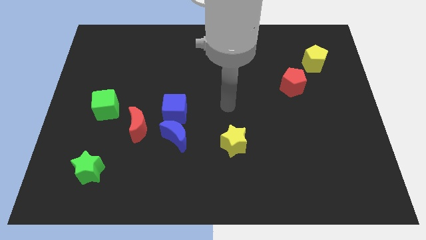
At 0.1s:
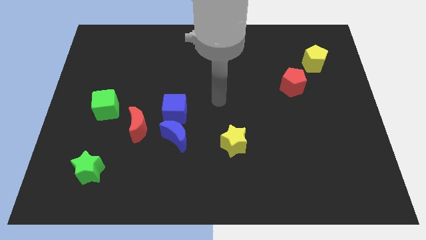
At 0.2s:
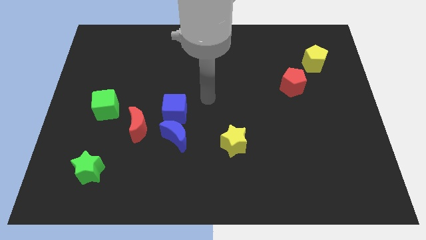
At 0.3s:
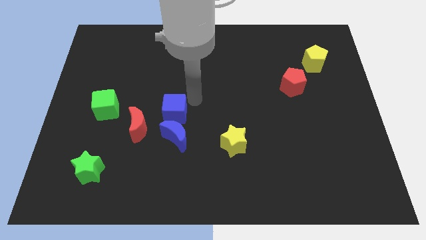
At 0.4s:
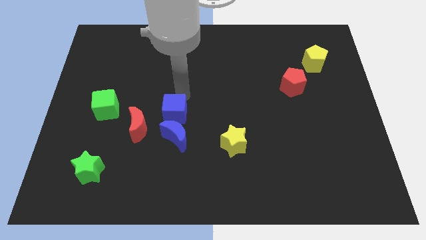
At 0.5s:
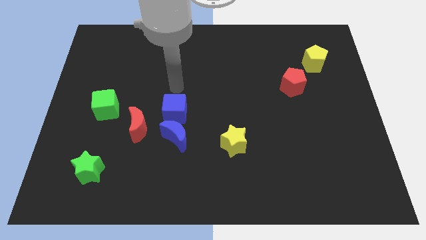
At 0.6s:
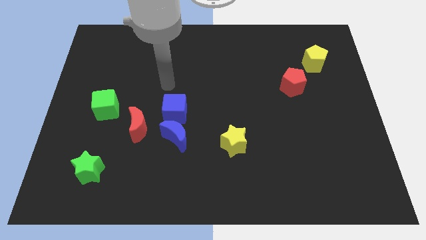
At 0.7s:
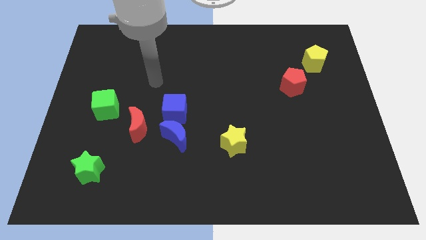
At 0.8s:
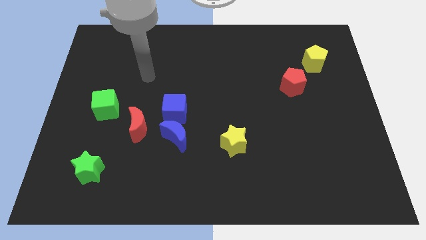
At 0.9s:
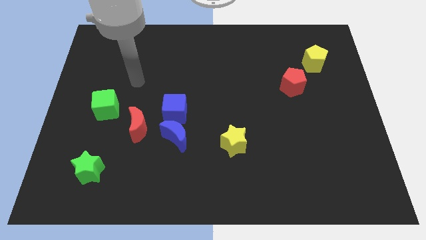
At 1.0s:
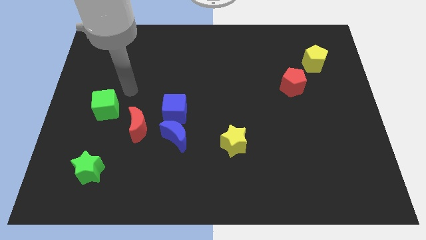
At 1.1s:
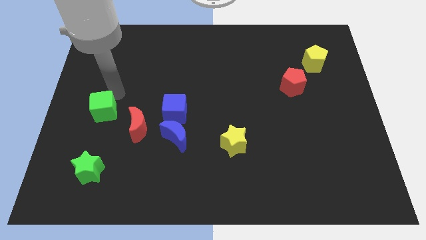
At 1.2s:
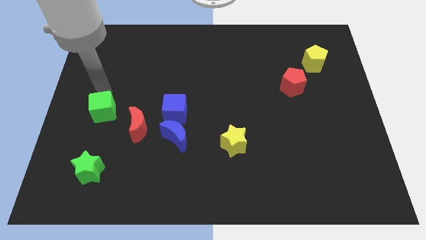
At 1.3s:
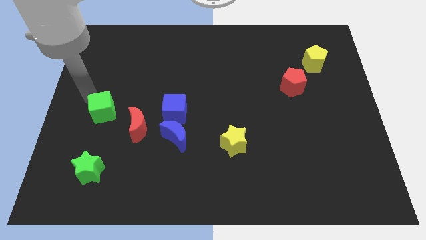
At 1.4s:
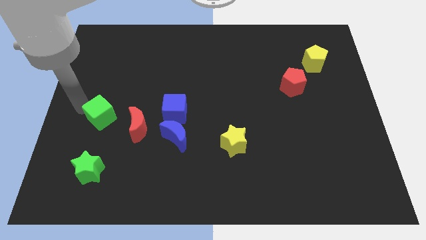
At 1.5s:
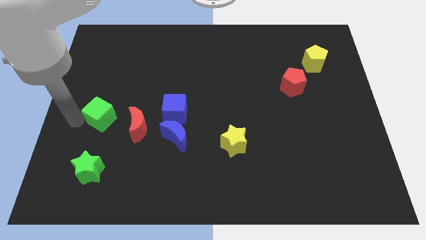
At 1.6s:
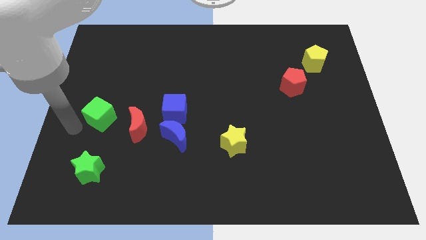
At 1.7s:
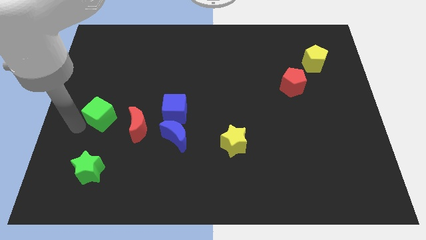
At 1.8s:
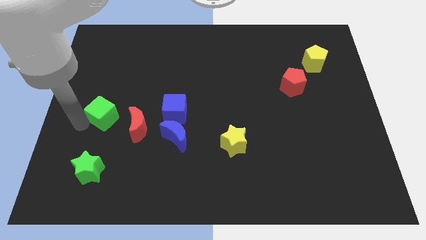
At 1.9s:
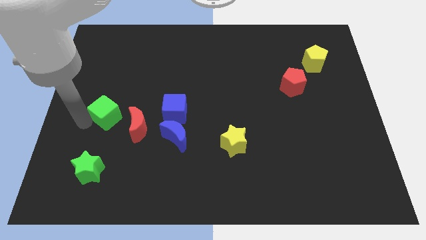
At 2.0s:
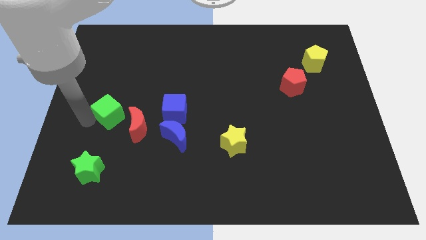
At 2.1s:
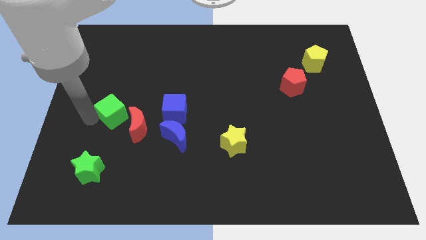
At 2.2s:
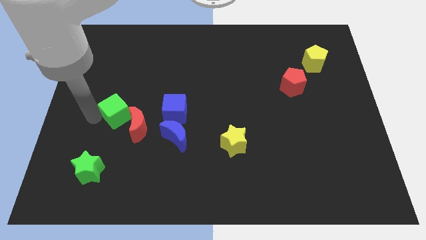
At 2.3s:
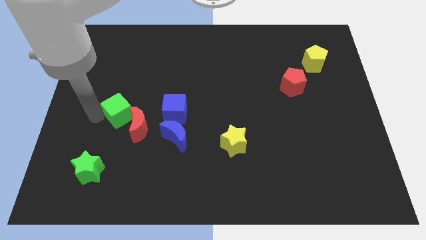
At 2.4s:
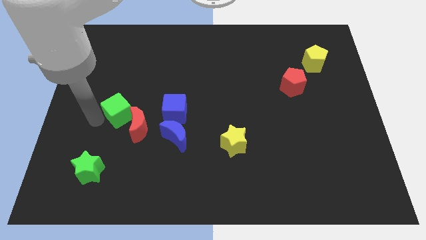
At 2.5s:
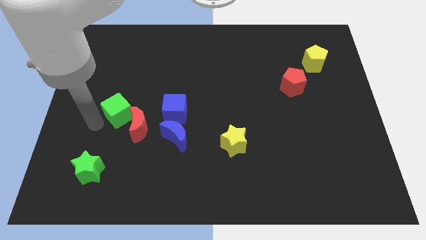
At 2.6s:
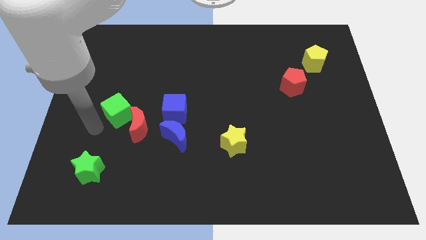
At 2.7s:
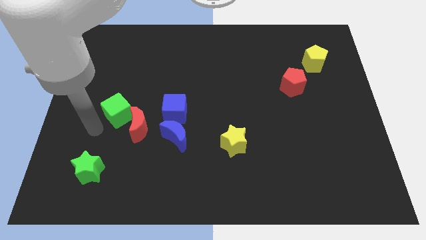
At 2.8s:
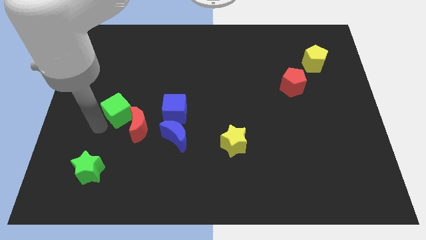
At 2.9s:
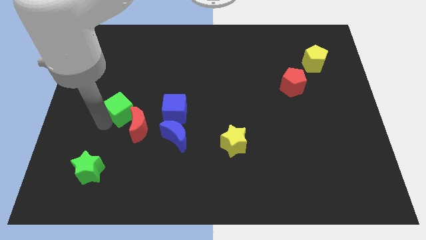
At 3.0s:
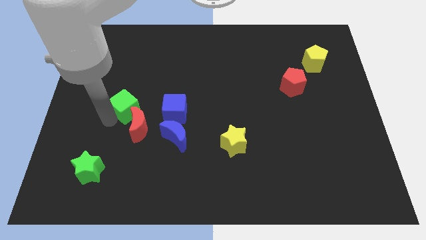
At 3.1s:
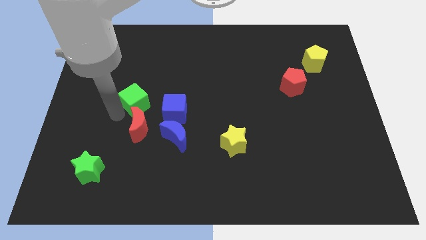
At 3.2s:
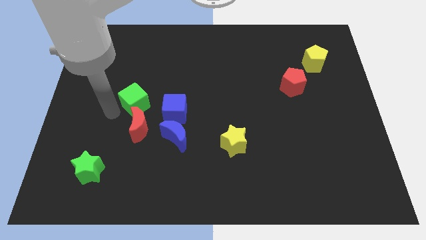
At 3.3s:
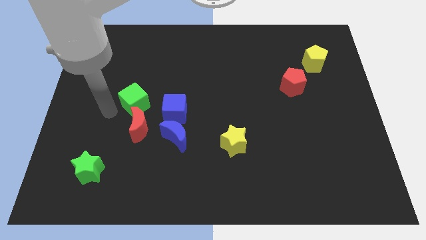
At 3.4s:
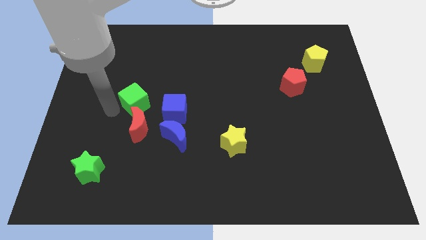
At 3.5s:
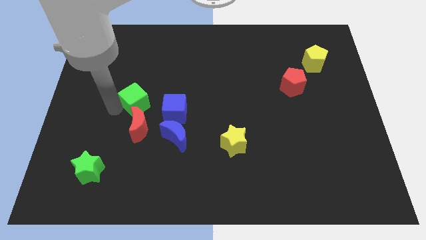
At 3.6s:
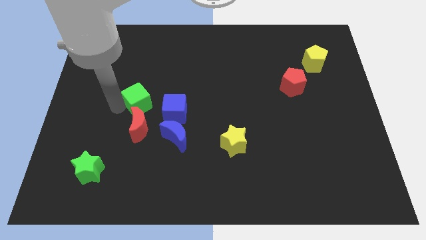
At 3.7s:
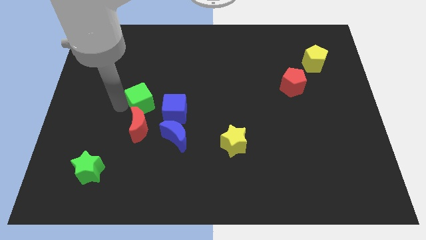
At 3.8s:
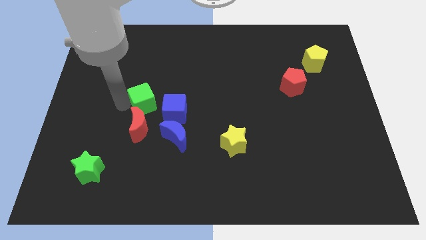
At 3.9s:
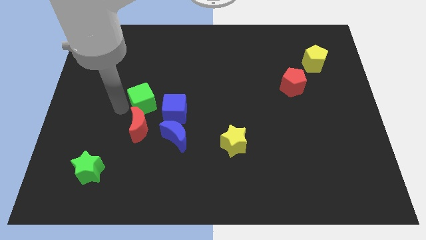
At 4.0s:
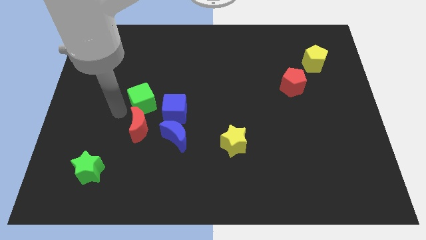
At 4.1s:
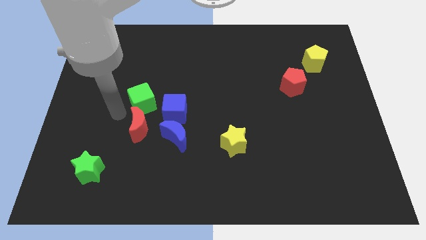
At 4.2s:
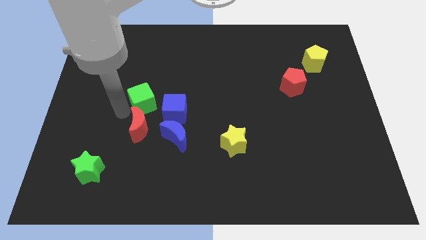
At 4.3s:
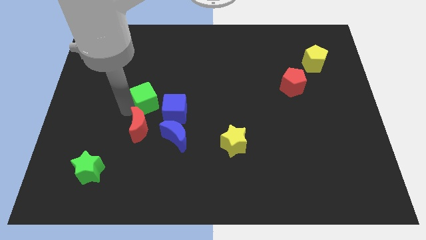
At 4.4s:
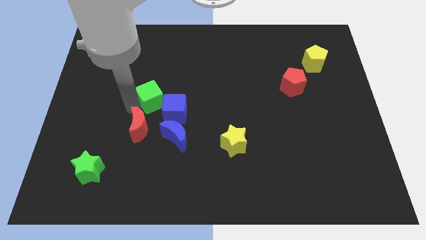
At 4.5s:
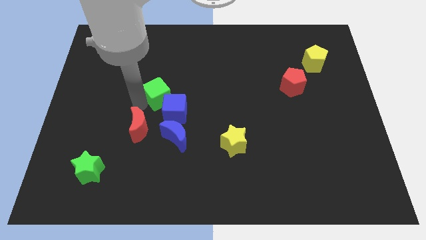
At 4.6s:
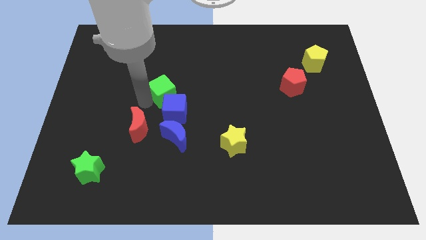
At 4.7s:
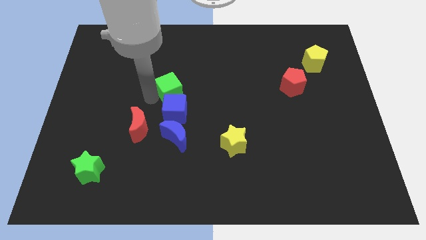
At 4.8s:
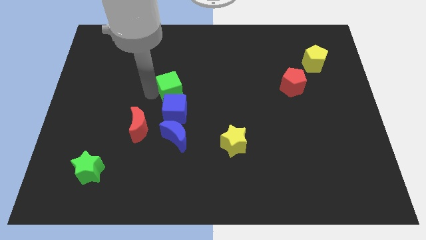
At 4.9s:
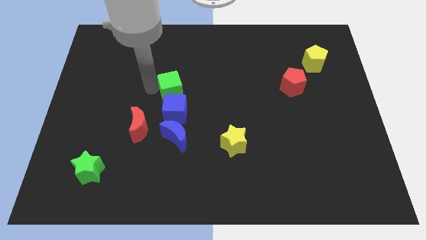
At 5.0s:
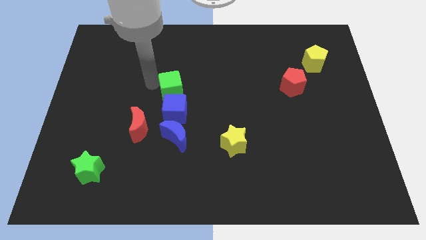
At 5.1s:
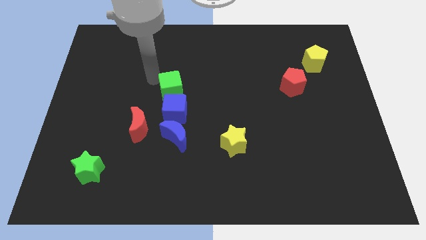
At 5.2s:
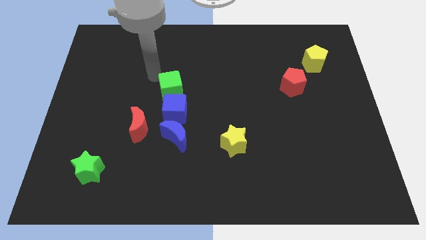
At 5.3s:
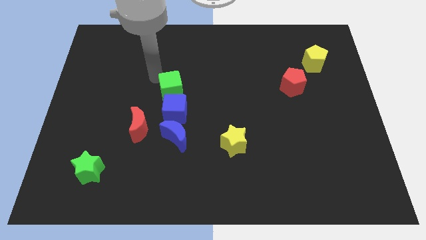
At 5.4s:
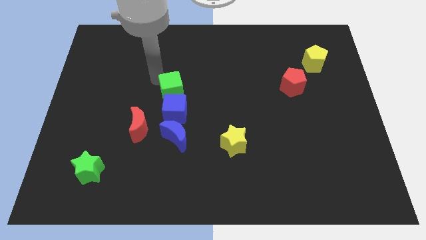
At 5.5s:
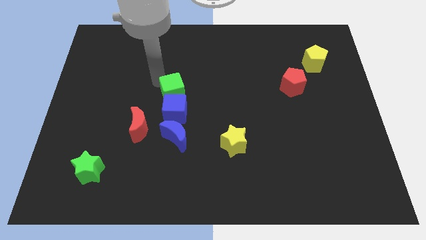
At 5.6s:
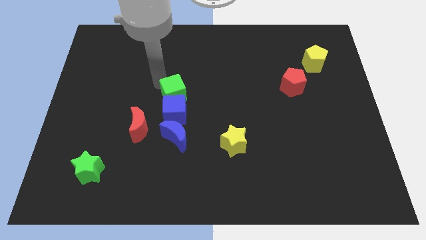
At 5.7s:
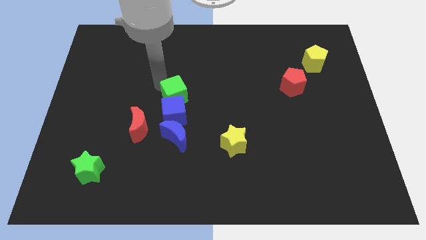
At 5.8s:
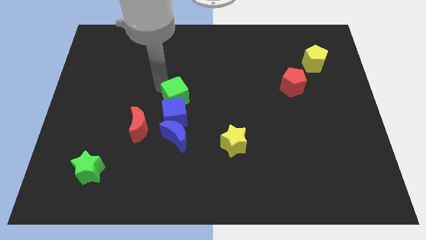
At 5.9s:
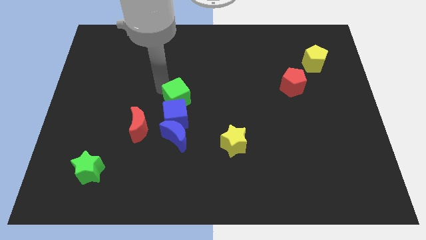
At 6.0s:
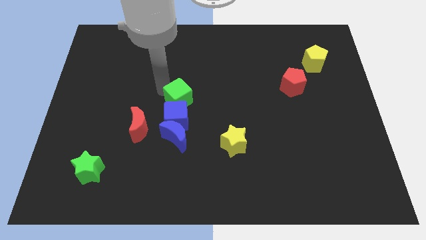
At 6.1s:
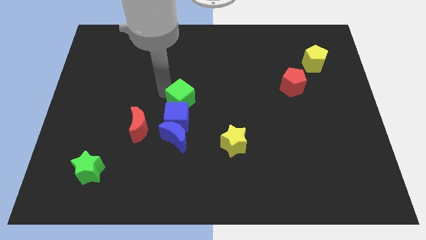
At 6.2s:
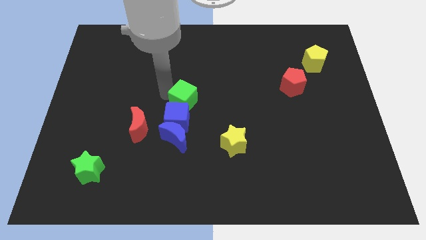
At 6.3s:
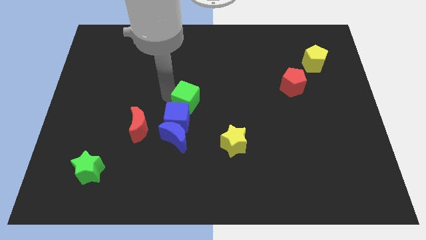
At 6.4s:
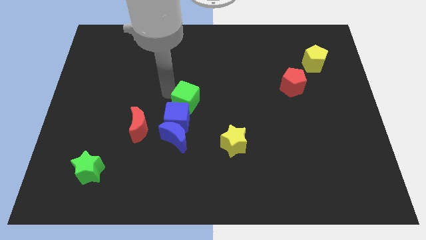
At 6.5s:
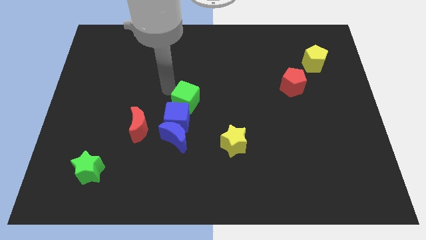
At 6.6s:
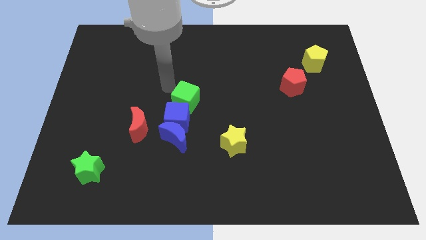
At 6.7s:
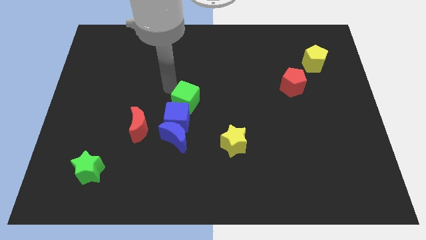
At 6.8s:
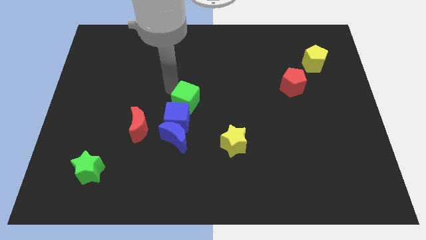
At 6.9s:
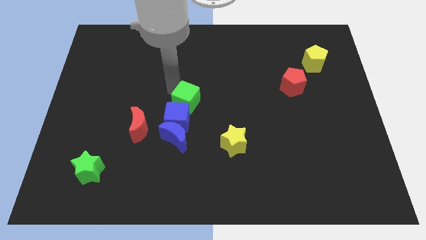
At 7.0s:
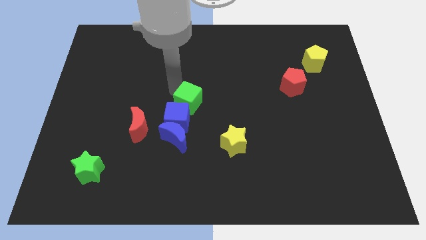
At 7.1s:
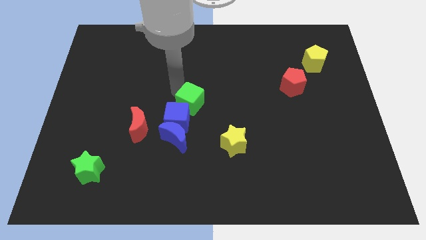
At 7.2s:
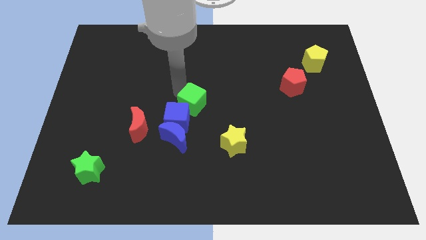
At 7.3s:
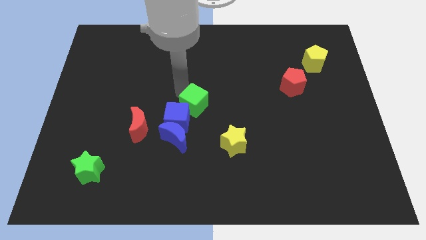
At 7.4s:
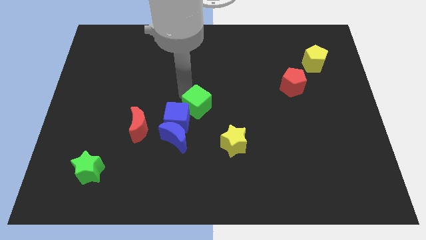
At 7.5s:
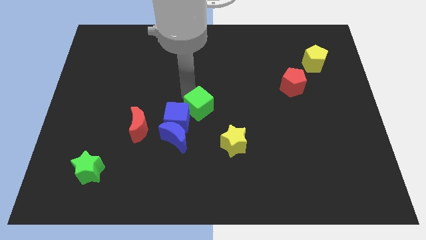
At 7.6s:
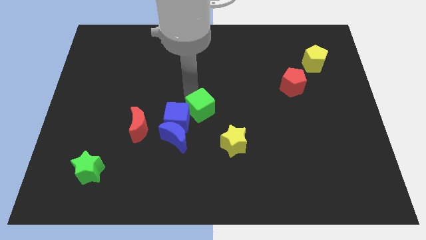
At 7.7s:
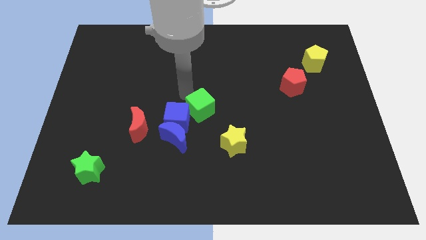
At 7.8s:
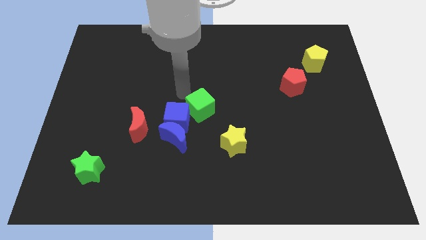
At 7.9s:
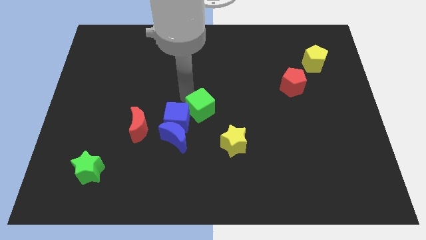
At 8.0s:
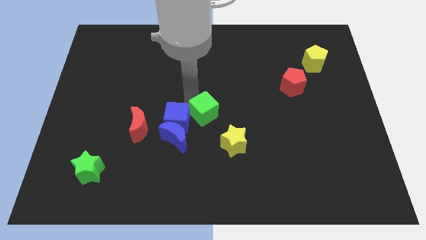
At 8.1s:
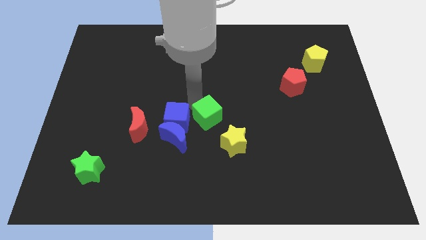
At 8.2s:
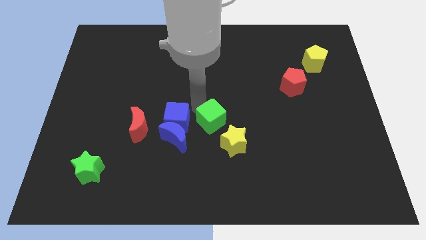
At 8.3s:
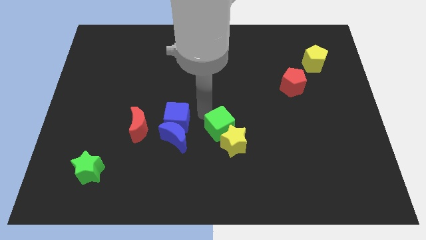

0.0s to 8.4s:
slide the green cube to the yellow star
